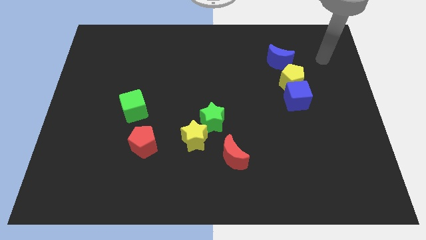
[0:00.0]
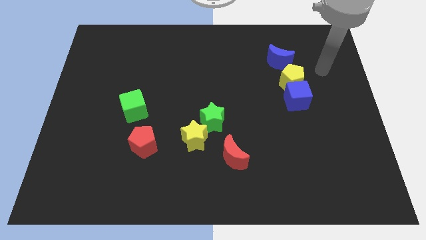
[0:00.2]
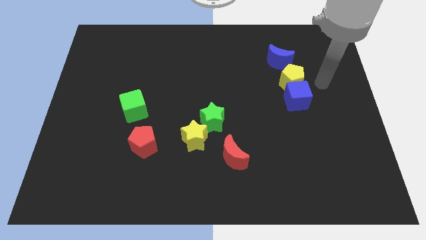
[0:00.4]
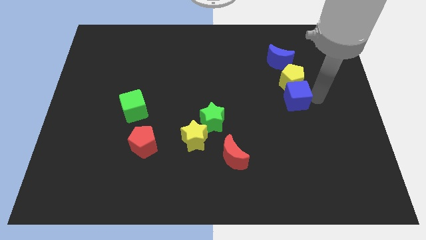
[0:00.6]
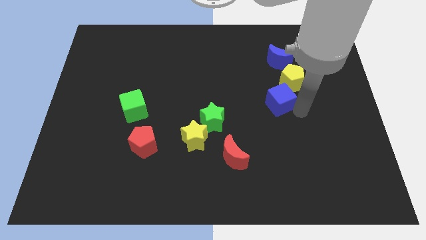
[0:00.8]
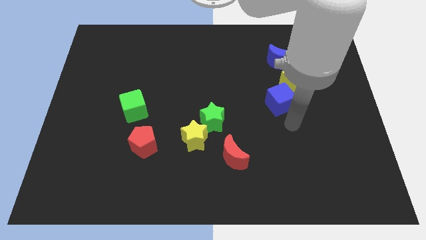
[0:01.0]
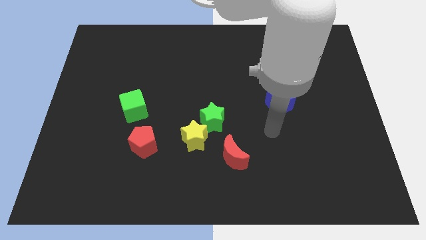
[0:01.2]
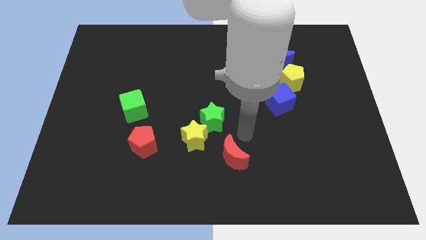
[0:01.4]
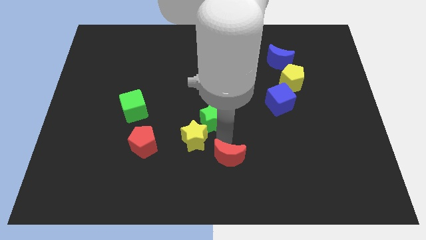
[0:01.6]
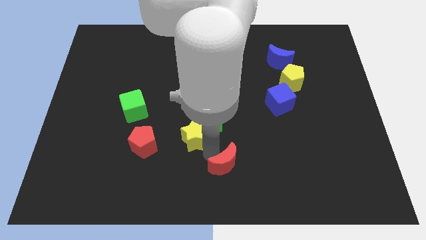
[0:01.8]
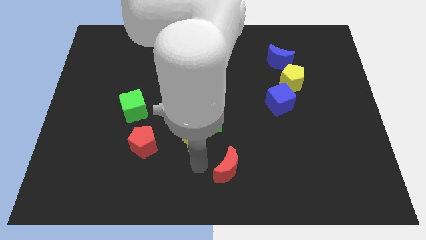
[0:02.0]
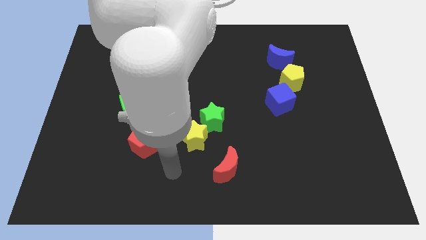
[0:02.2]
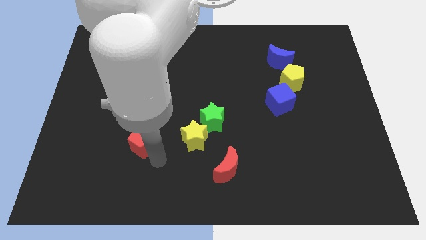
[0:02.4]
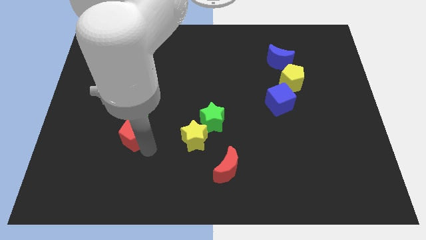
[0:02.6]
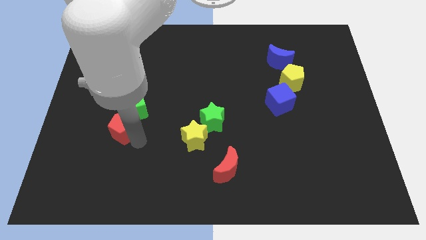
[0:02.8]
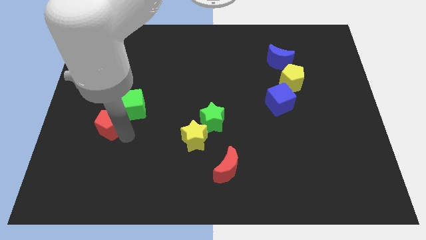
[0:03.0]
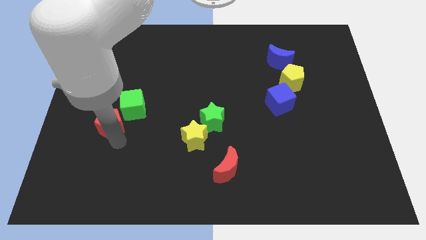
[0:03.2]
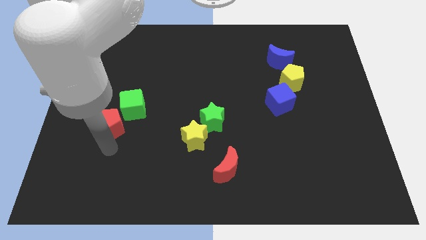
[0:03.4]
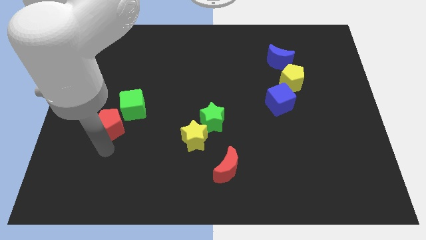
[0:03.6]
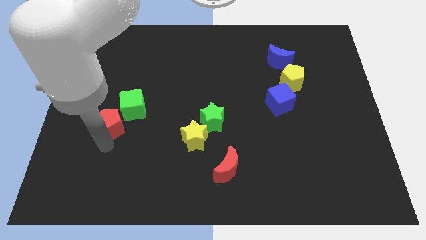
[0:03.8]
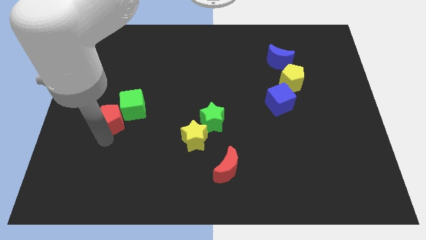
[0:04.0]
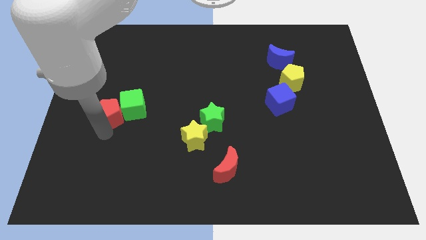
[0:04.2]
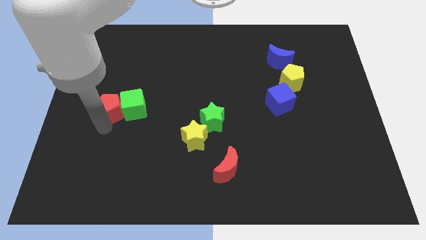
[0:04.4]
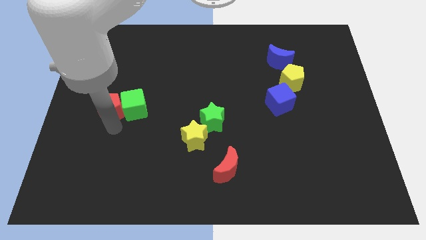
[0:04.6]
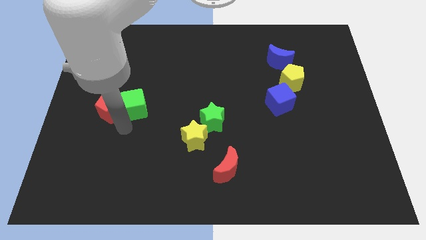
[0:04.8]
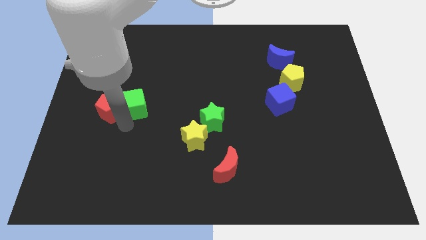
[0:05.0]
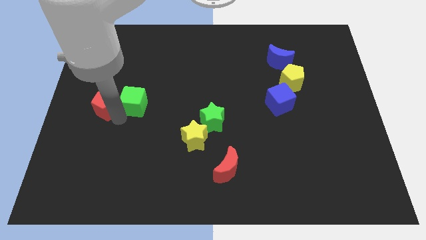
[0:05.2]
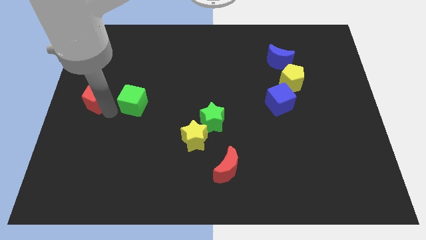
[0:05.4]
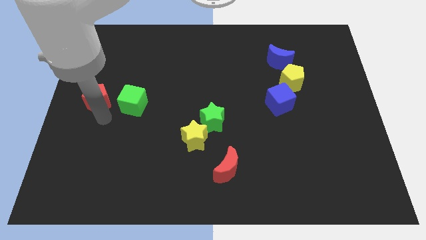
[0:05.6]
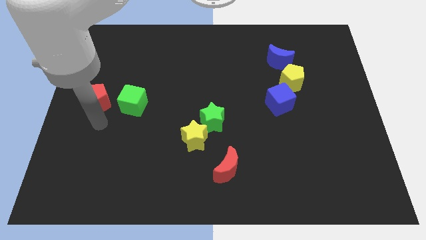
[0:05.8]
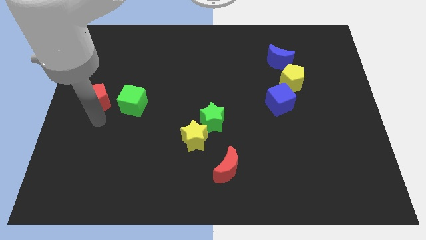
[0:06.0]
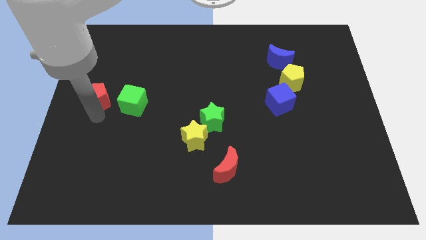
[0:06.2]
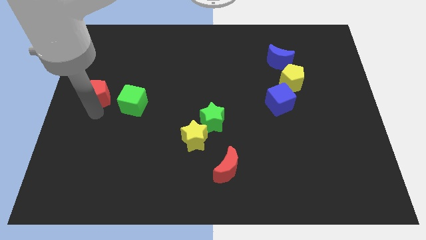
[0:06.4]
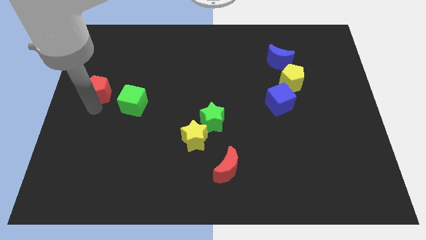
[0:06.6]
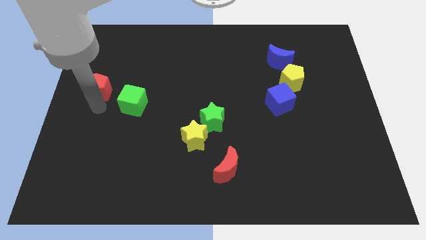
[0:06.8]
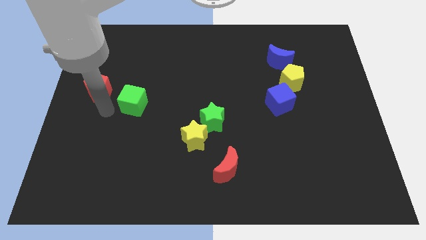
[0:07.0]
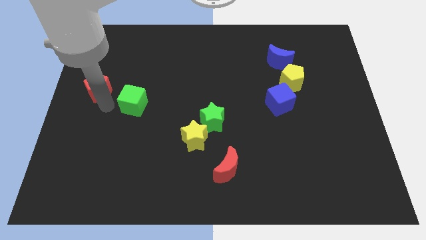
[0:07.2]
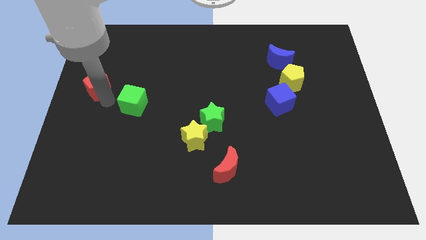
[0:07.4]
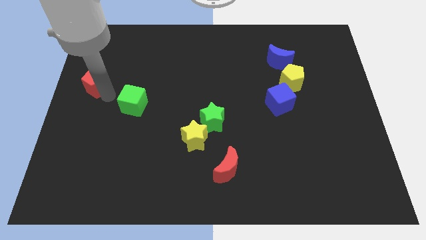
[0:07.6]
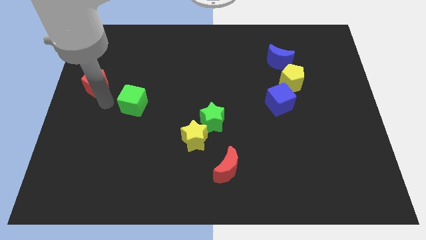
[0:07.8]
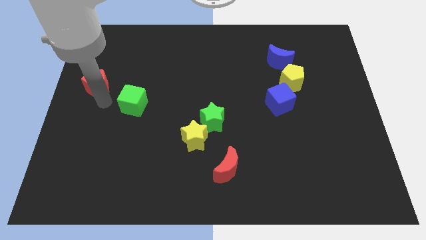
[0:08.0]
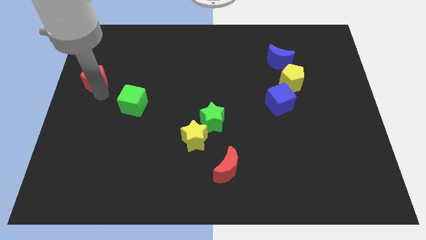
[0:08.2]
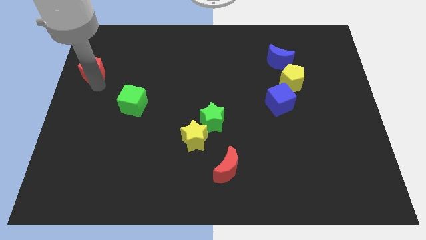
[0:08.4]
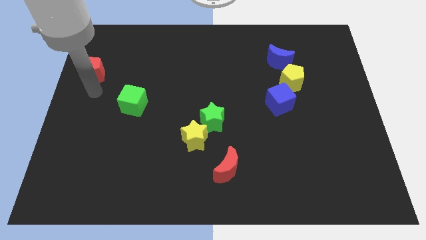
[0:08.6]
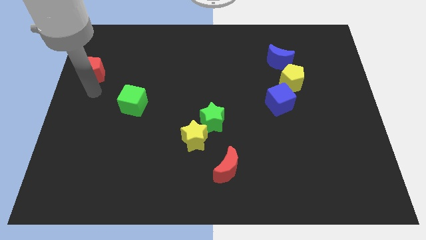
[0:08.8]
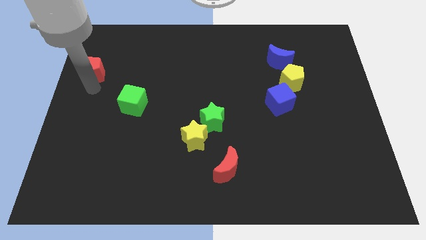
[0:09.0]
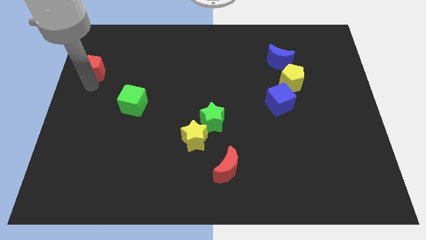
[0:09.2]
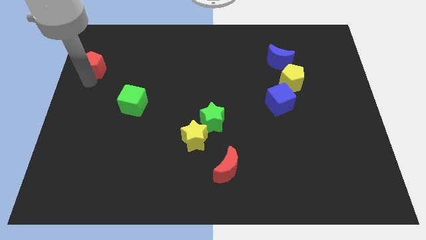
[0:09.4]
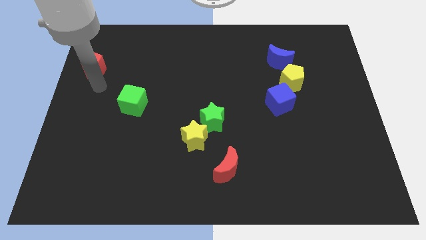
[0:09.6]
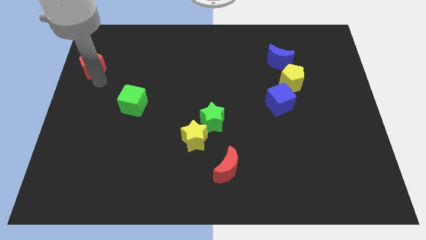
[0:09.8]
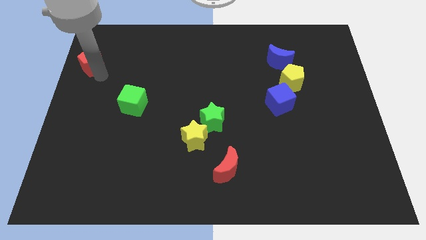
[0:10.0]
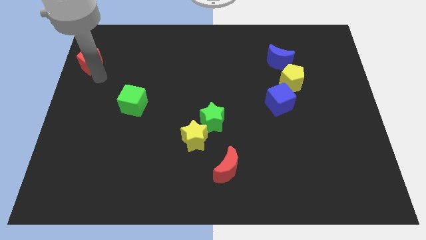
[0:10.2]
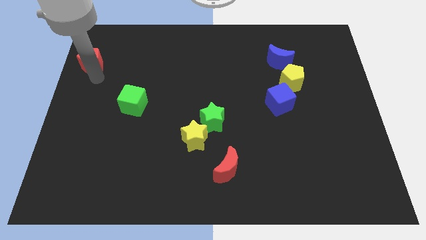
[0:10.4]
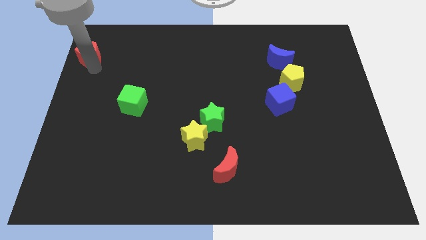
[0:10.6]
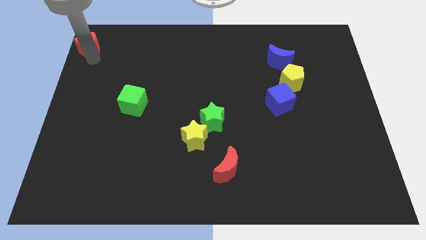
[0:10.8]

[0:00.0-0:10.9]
slide the red pentagon to the upper left corner
